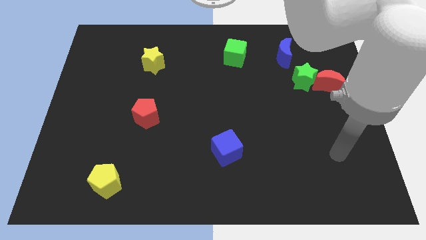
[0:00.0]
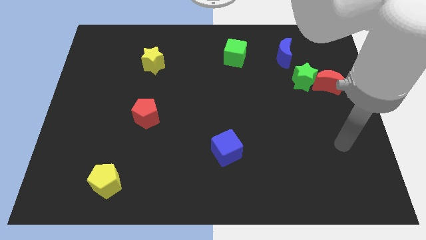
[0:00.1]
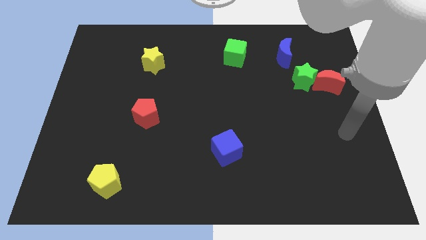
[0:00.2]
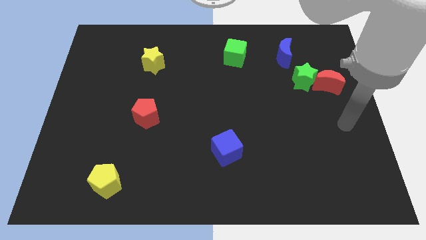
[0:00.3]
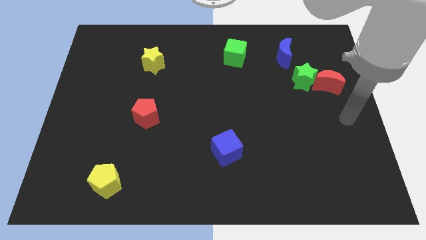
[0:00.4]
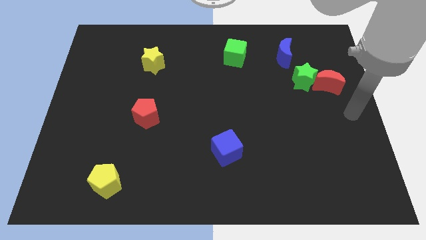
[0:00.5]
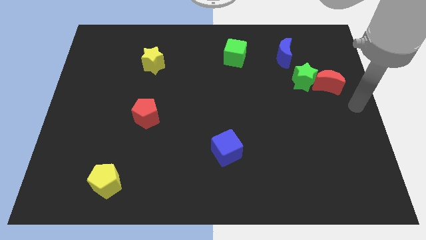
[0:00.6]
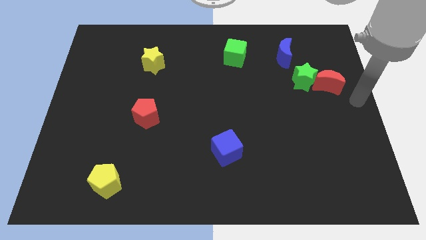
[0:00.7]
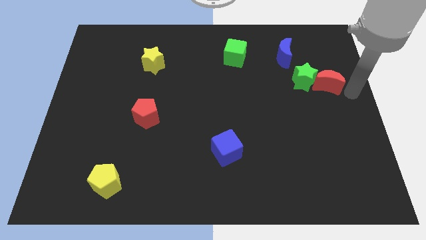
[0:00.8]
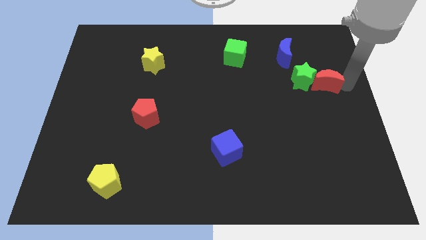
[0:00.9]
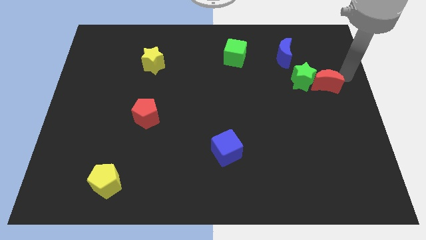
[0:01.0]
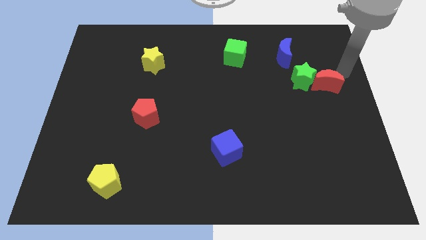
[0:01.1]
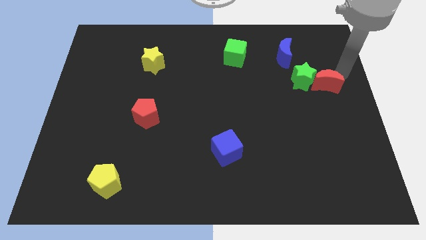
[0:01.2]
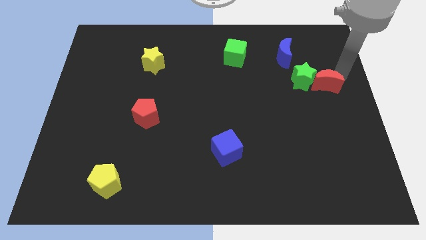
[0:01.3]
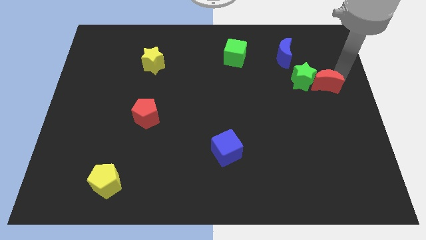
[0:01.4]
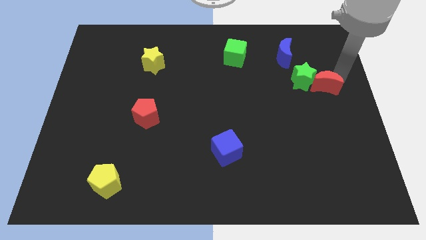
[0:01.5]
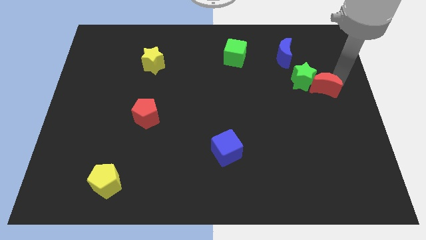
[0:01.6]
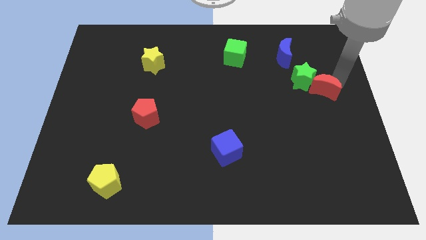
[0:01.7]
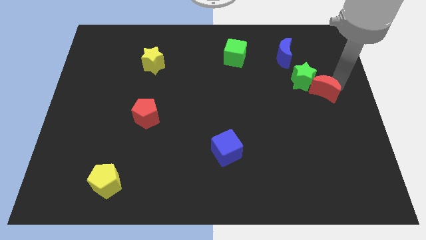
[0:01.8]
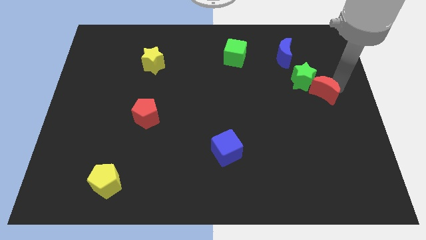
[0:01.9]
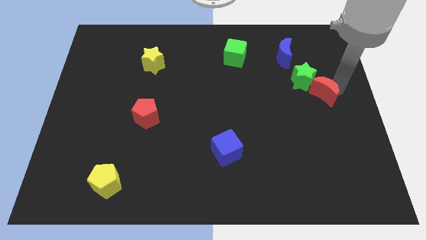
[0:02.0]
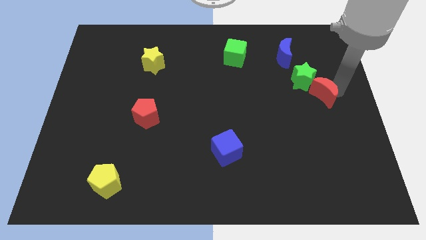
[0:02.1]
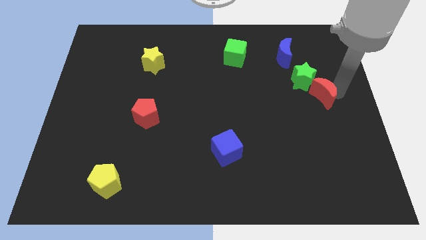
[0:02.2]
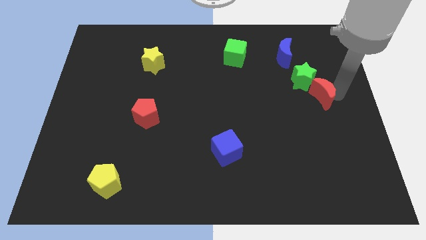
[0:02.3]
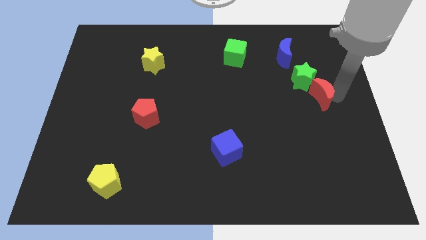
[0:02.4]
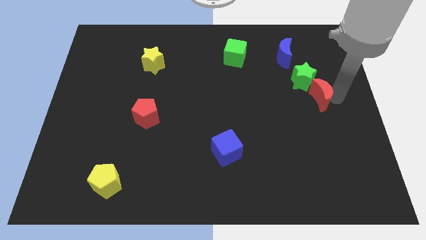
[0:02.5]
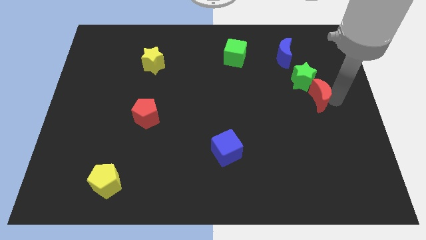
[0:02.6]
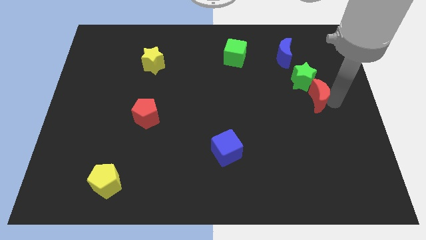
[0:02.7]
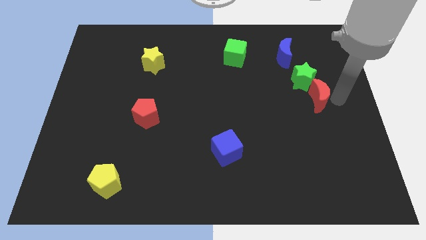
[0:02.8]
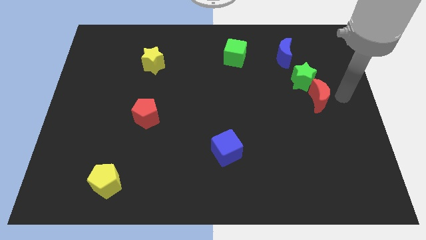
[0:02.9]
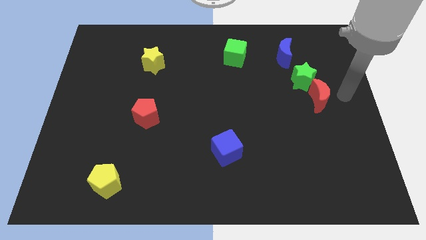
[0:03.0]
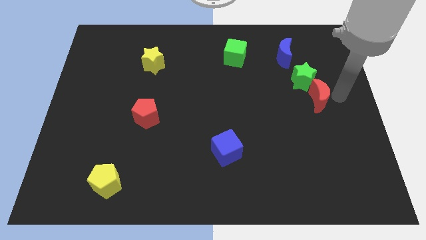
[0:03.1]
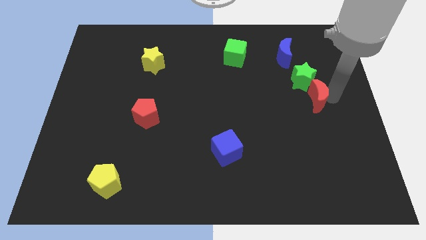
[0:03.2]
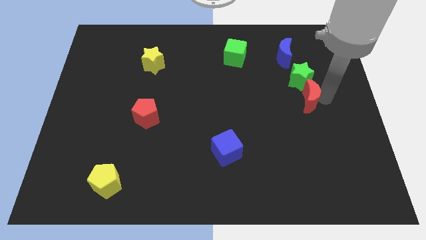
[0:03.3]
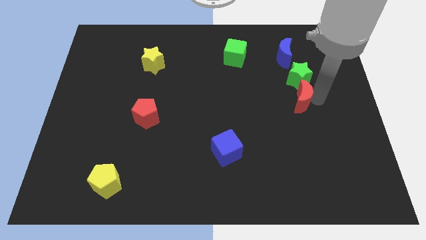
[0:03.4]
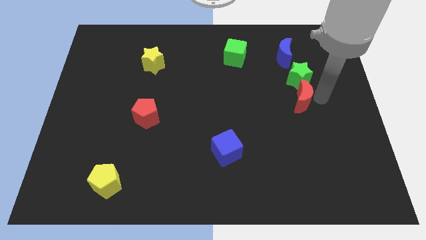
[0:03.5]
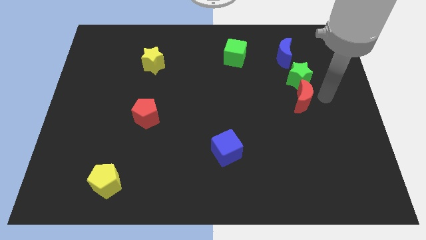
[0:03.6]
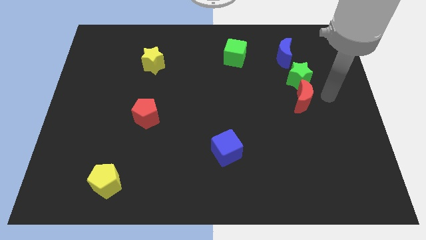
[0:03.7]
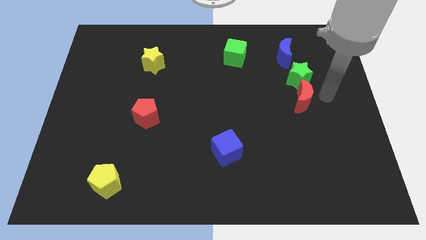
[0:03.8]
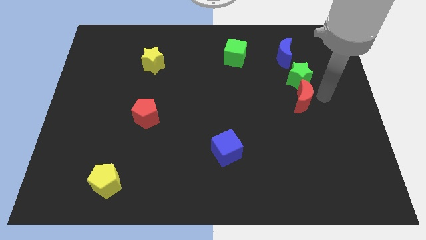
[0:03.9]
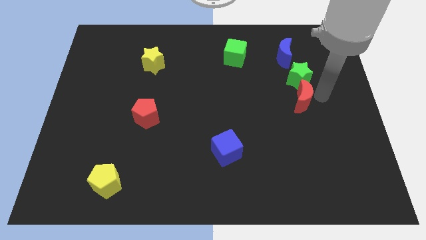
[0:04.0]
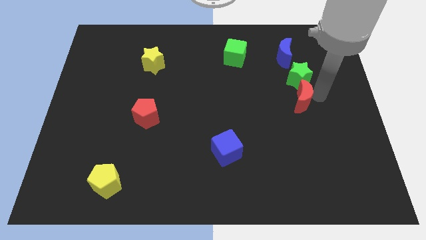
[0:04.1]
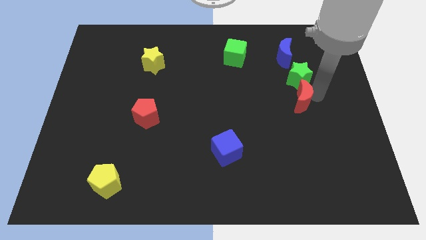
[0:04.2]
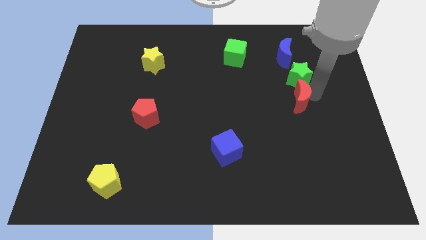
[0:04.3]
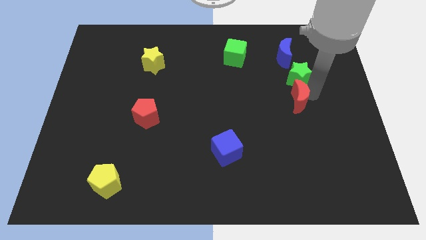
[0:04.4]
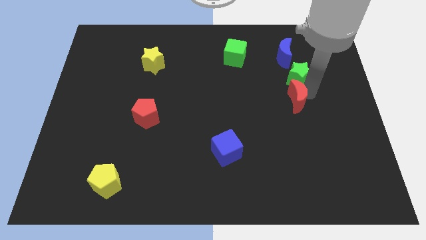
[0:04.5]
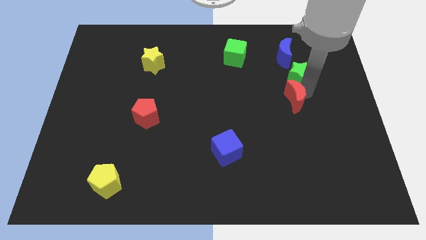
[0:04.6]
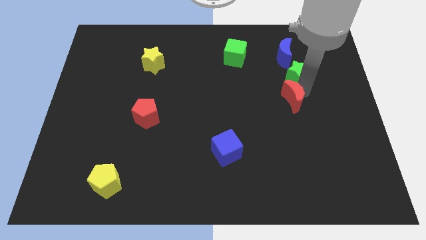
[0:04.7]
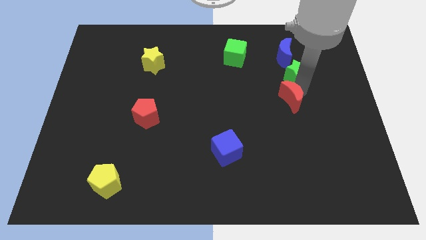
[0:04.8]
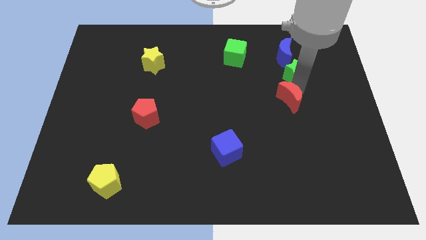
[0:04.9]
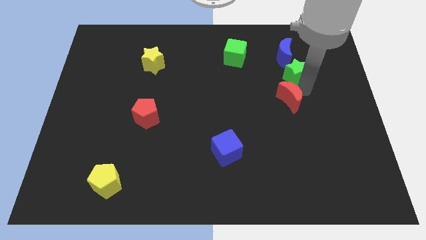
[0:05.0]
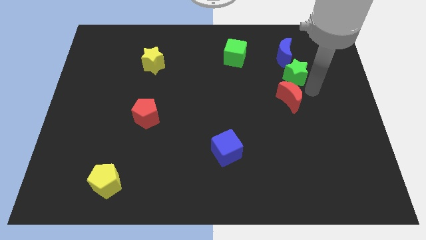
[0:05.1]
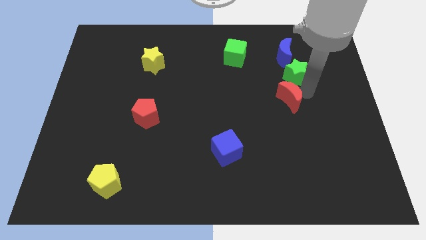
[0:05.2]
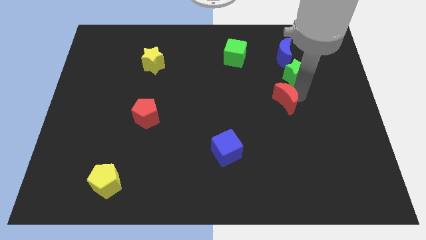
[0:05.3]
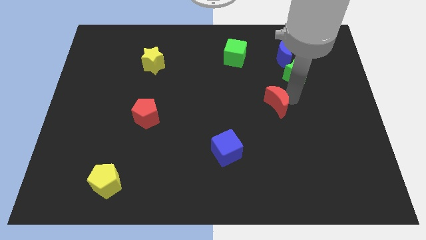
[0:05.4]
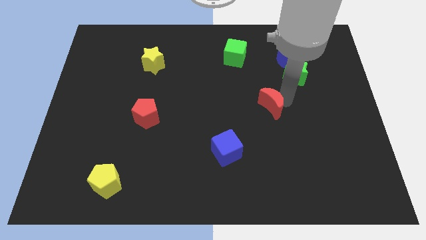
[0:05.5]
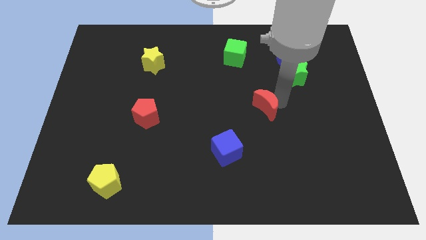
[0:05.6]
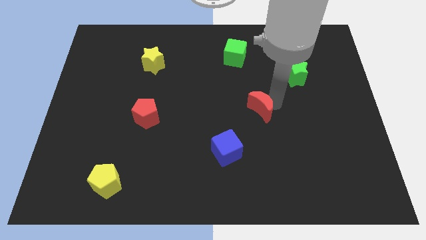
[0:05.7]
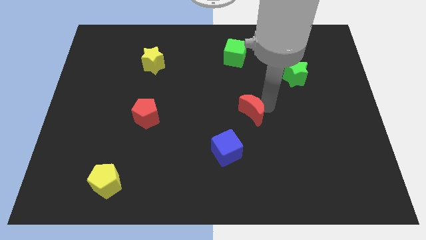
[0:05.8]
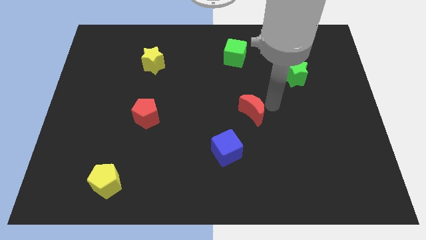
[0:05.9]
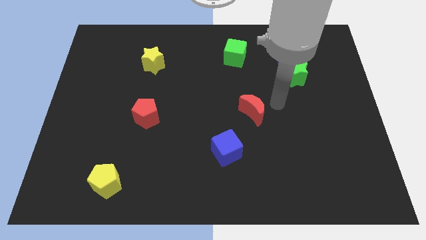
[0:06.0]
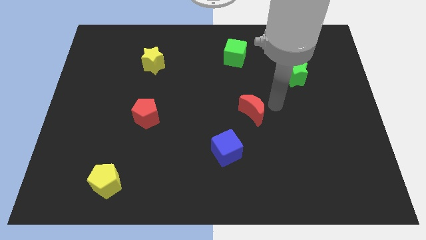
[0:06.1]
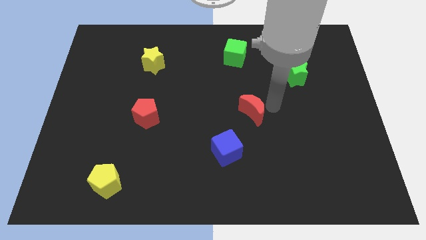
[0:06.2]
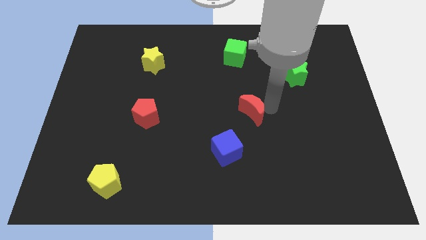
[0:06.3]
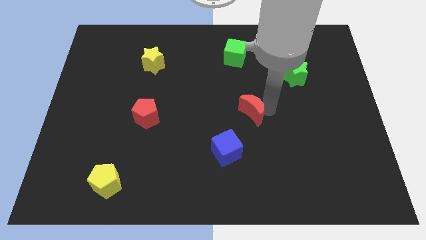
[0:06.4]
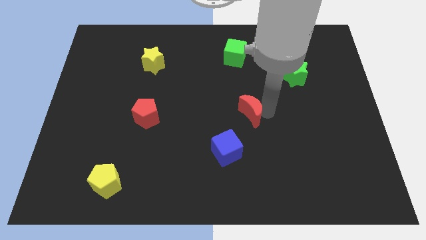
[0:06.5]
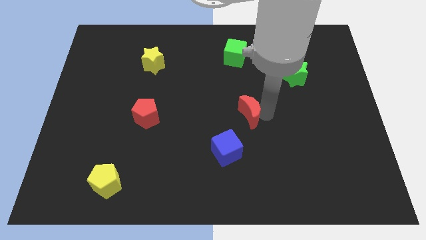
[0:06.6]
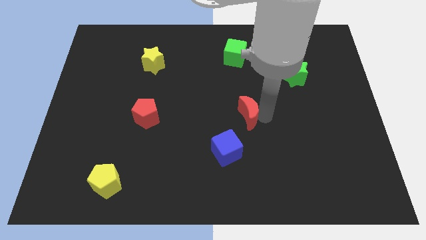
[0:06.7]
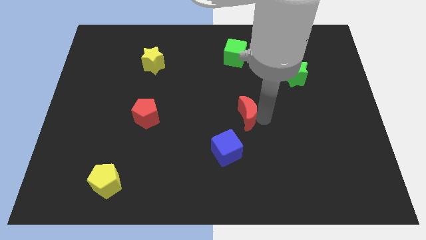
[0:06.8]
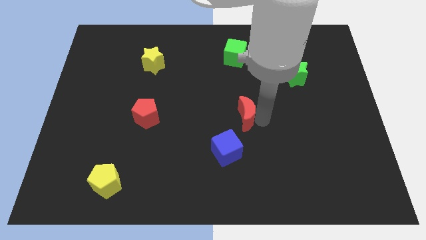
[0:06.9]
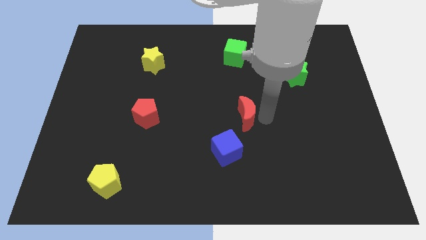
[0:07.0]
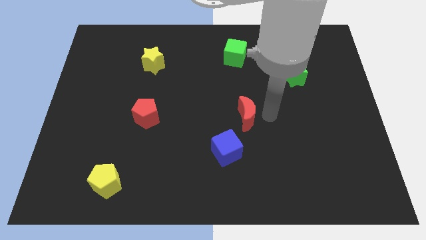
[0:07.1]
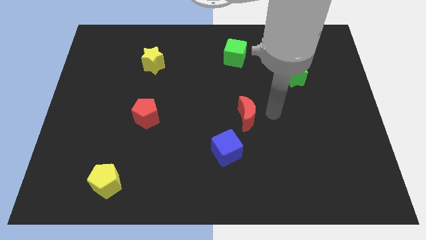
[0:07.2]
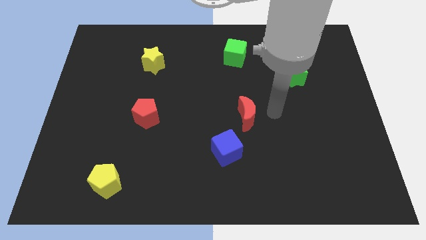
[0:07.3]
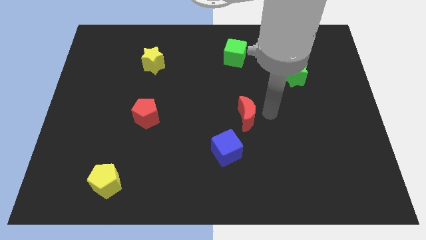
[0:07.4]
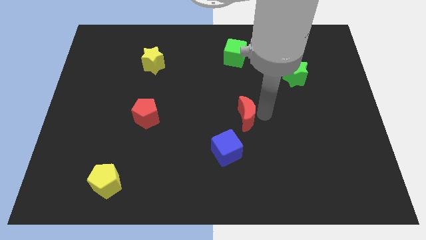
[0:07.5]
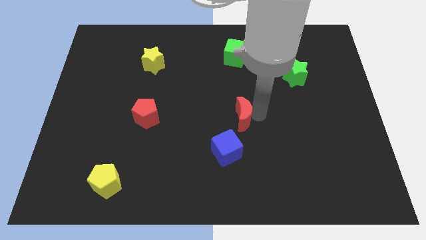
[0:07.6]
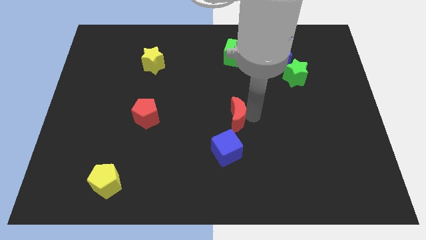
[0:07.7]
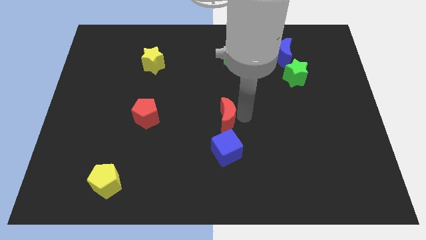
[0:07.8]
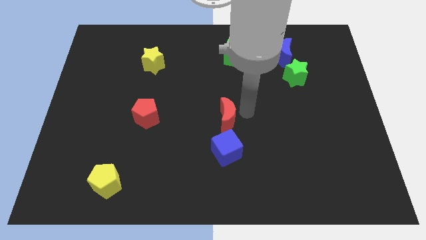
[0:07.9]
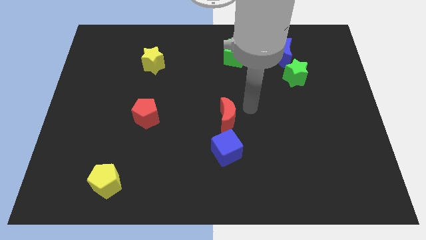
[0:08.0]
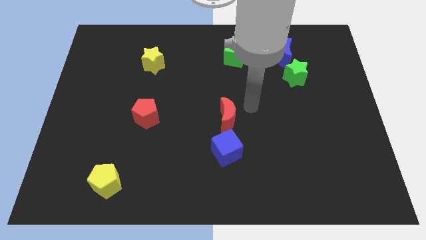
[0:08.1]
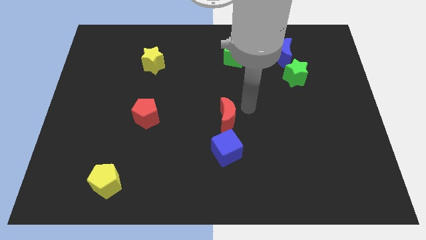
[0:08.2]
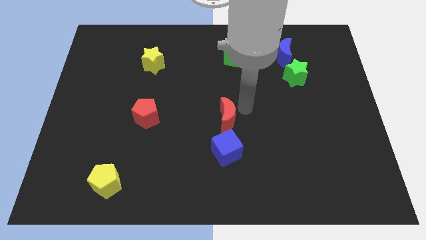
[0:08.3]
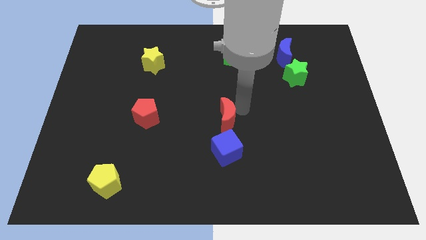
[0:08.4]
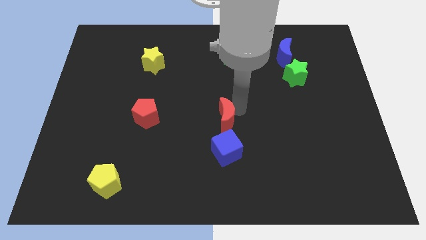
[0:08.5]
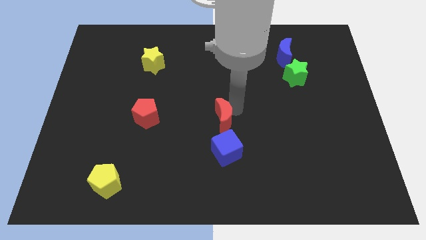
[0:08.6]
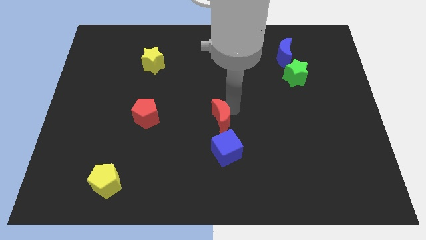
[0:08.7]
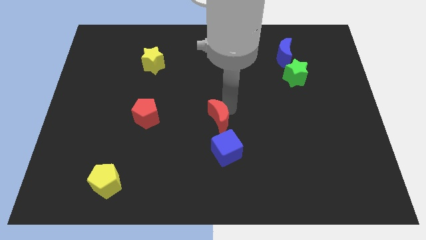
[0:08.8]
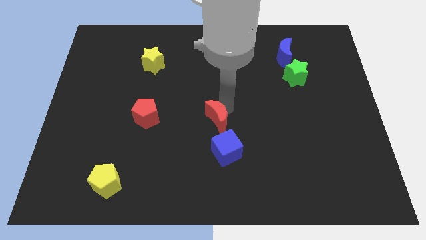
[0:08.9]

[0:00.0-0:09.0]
move the red moon to the top left side of the blue cube
